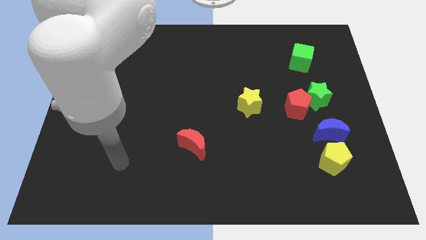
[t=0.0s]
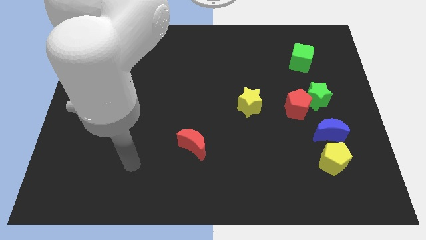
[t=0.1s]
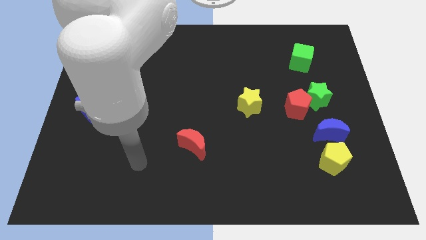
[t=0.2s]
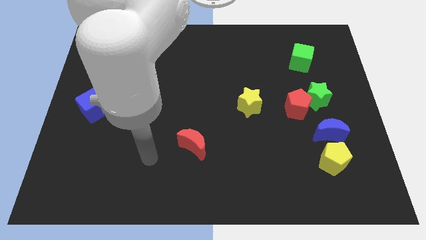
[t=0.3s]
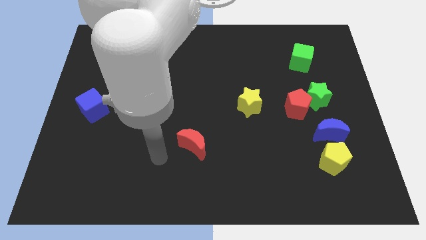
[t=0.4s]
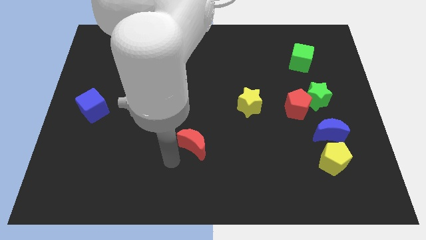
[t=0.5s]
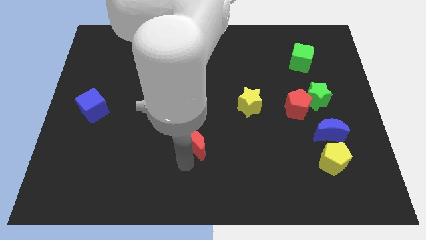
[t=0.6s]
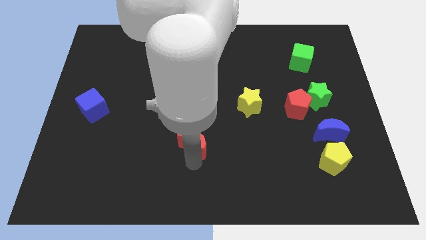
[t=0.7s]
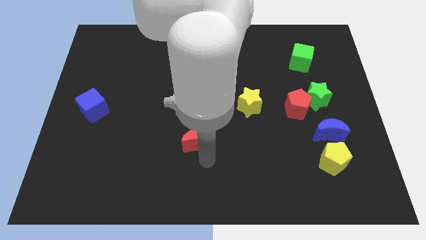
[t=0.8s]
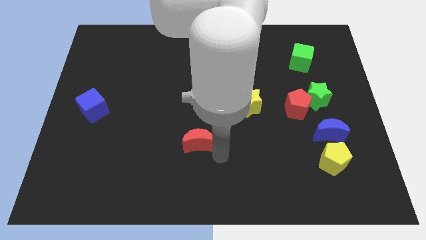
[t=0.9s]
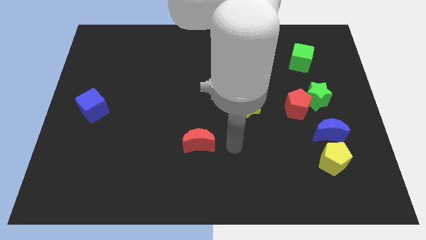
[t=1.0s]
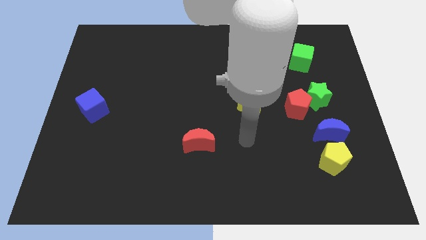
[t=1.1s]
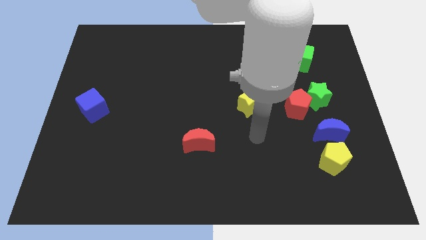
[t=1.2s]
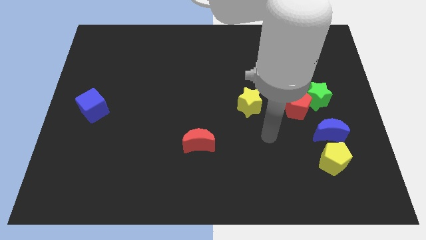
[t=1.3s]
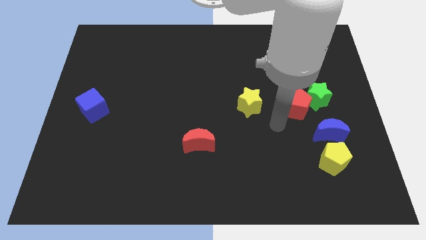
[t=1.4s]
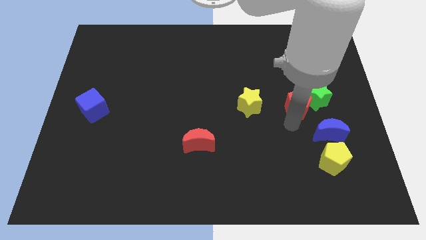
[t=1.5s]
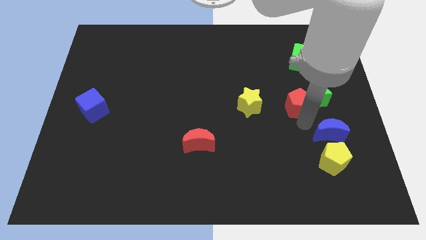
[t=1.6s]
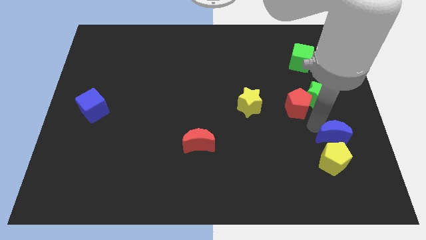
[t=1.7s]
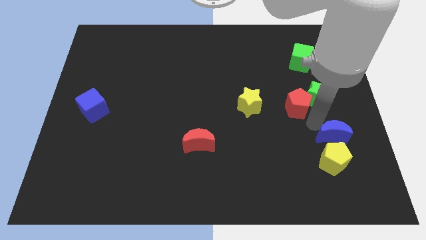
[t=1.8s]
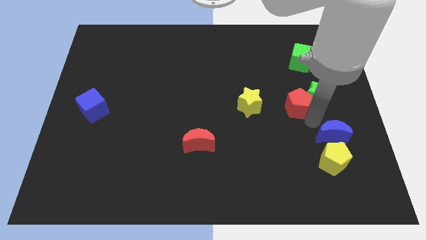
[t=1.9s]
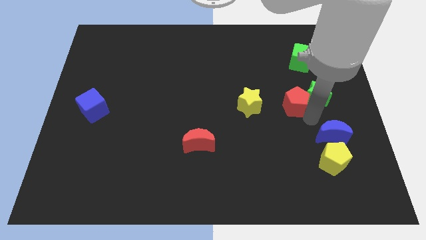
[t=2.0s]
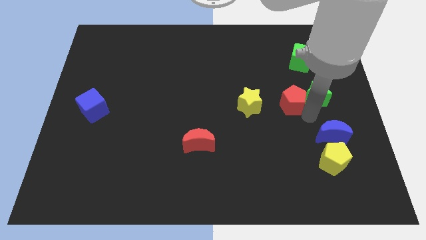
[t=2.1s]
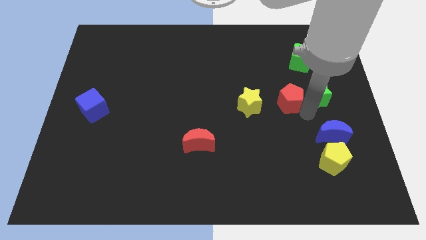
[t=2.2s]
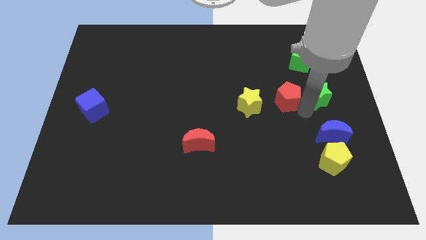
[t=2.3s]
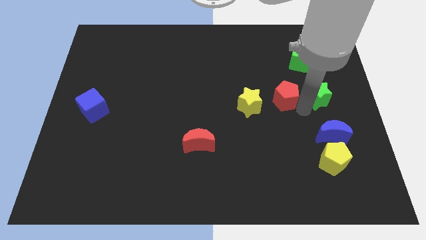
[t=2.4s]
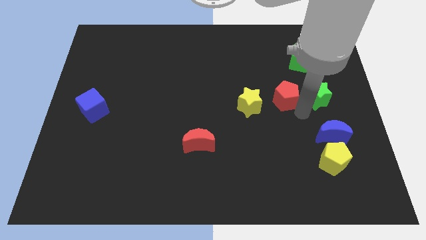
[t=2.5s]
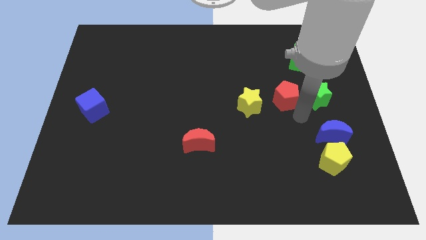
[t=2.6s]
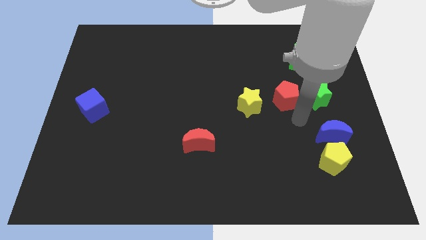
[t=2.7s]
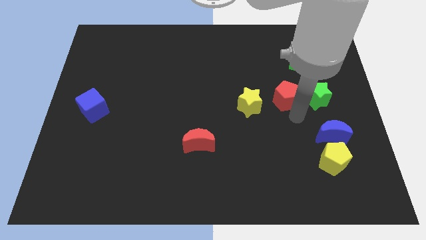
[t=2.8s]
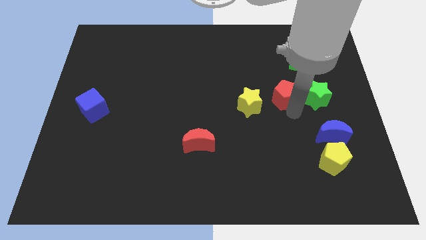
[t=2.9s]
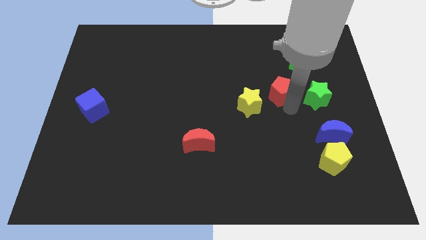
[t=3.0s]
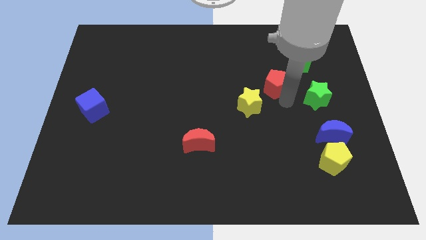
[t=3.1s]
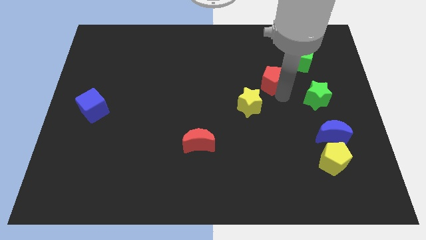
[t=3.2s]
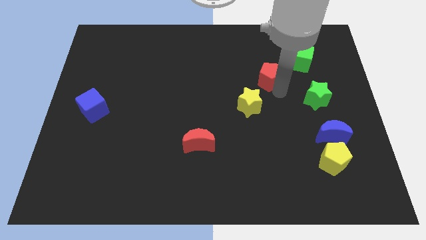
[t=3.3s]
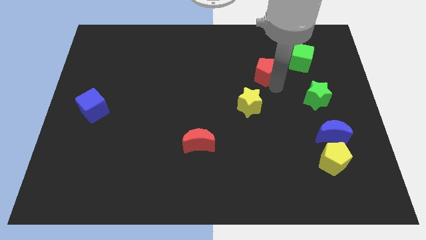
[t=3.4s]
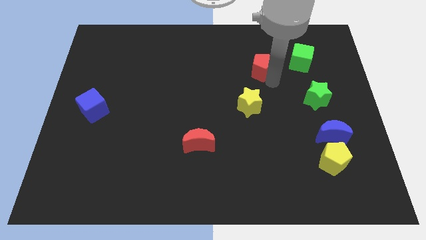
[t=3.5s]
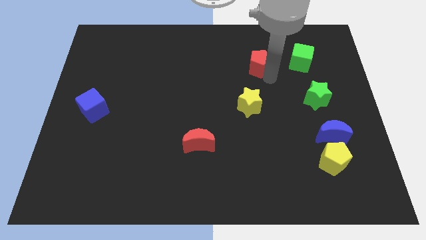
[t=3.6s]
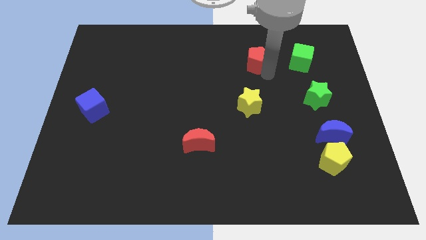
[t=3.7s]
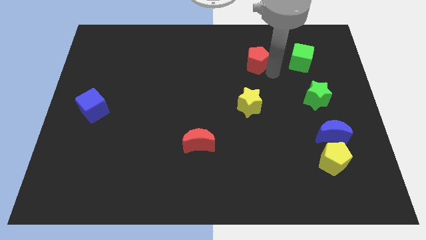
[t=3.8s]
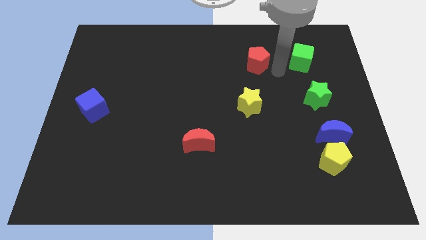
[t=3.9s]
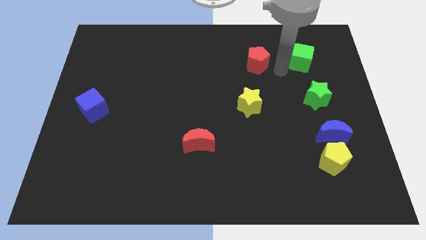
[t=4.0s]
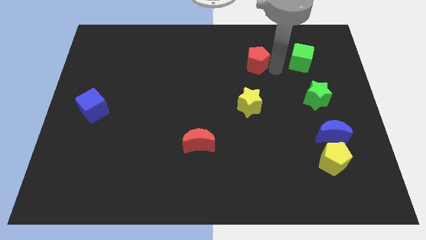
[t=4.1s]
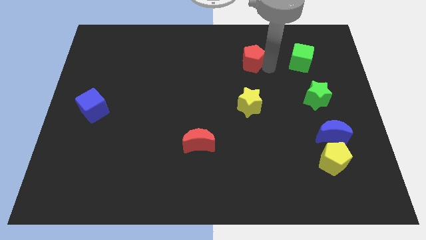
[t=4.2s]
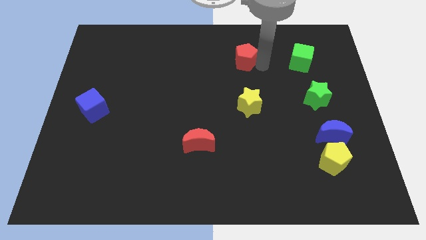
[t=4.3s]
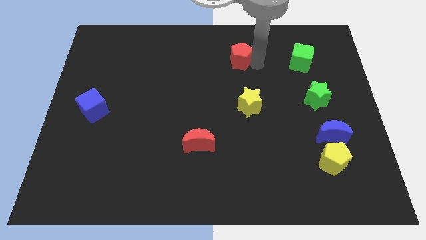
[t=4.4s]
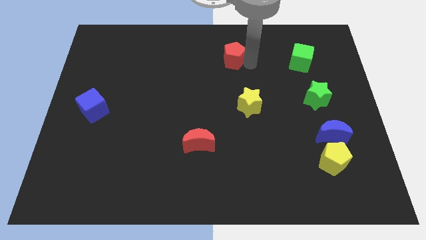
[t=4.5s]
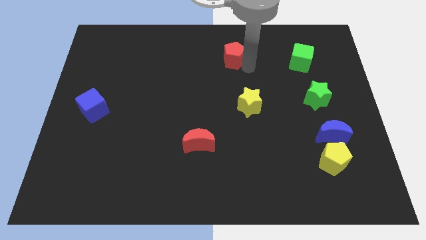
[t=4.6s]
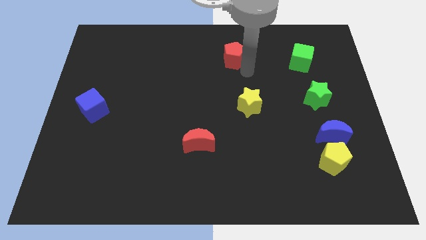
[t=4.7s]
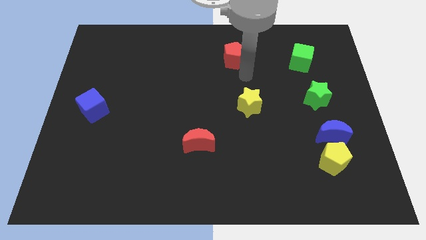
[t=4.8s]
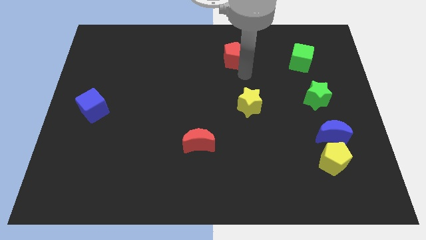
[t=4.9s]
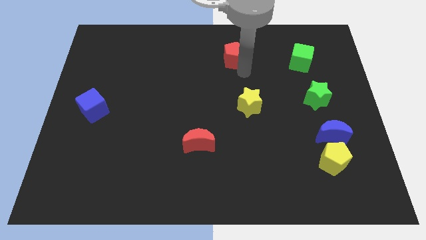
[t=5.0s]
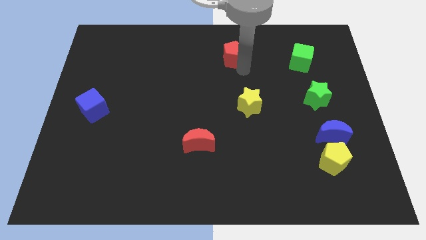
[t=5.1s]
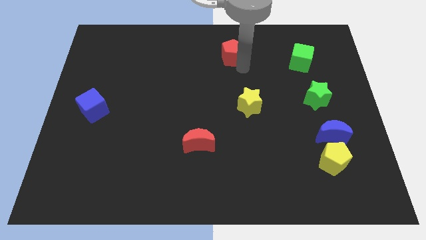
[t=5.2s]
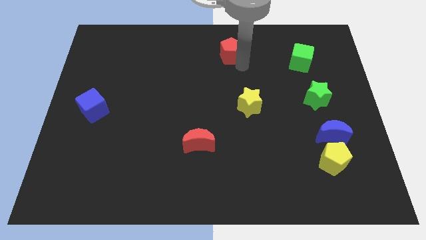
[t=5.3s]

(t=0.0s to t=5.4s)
push the red pentagon to the top
